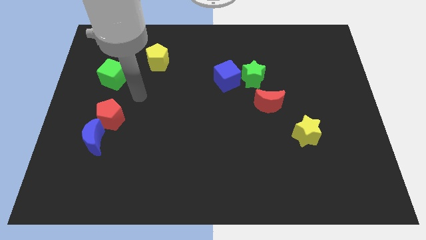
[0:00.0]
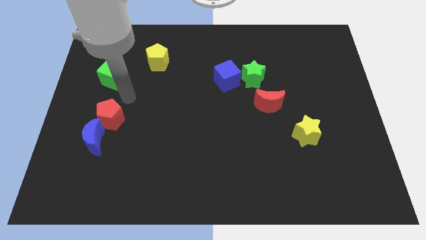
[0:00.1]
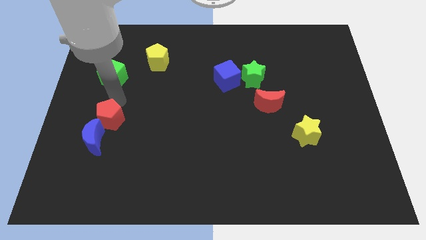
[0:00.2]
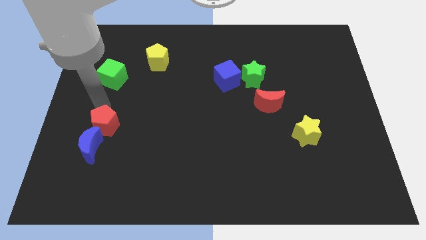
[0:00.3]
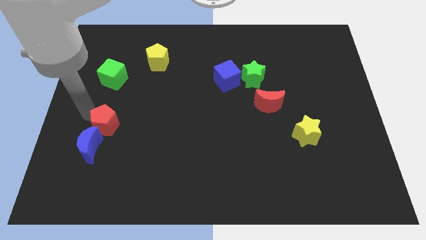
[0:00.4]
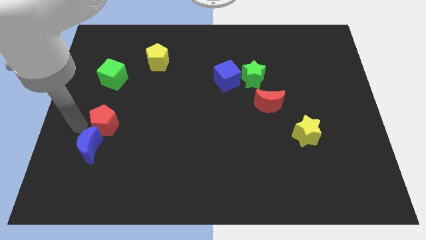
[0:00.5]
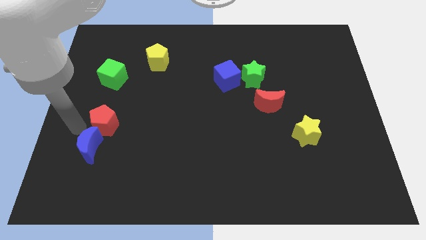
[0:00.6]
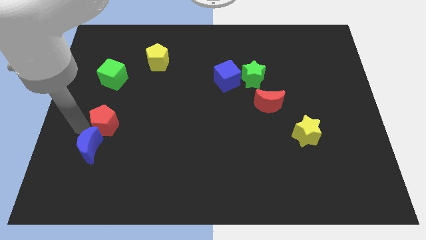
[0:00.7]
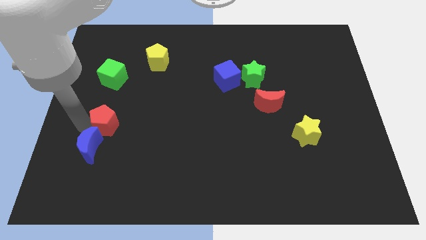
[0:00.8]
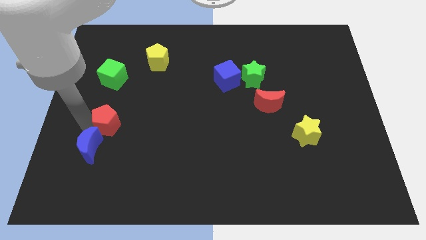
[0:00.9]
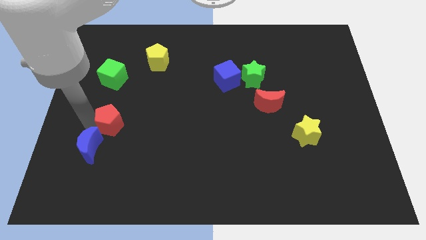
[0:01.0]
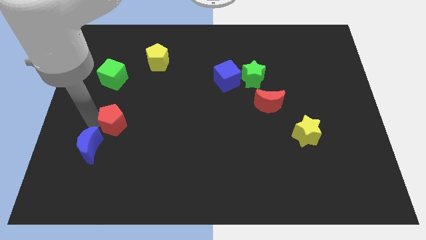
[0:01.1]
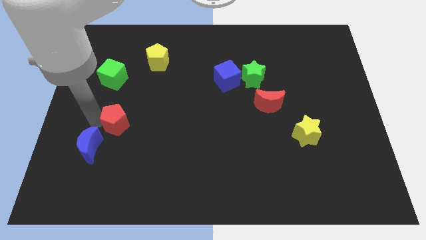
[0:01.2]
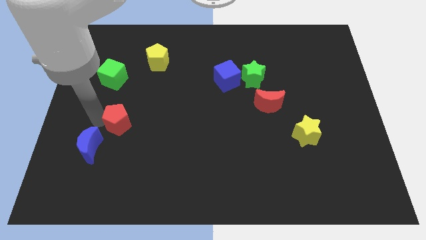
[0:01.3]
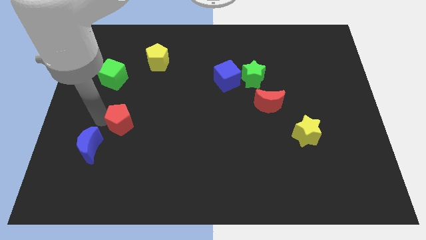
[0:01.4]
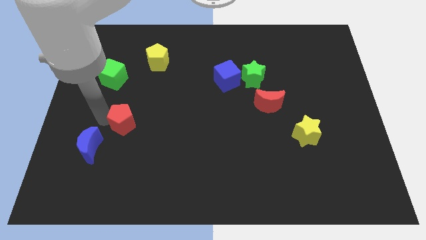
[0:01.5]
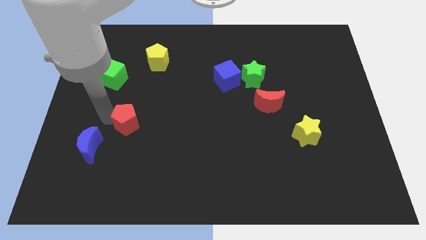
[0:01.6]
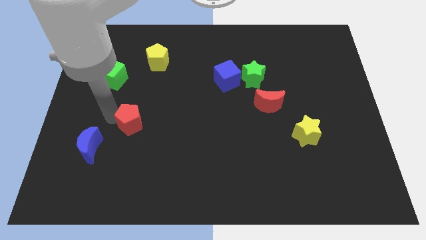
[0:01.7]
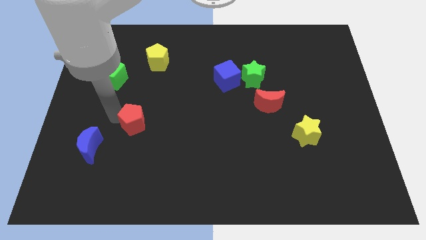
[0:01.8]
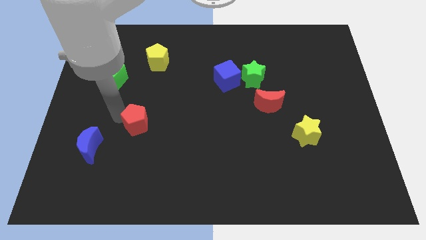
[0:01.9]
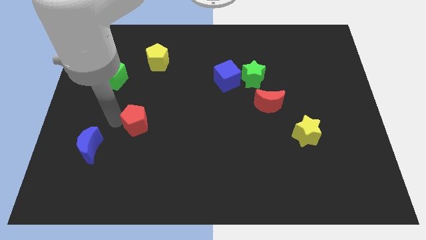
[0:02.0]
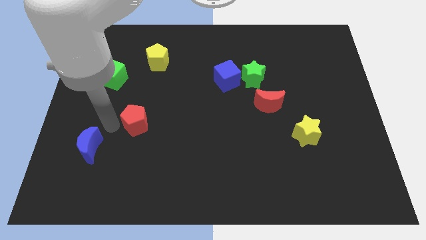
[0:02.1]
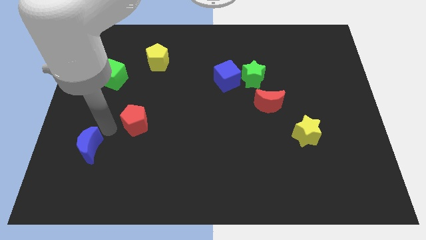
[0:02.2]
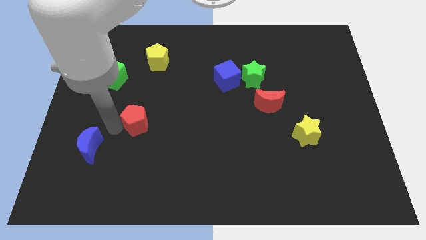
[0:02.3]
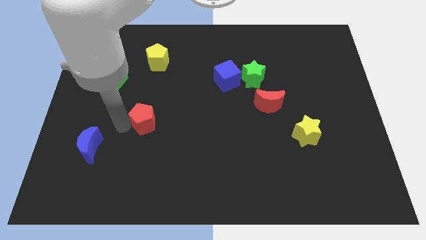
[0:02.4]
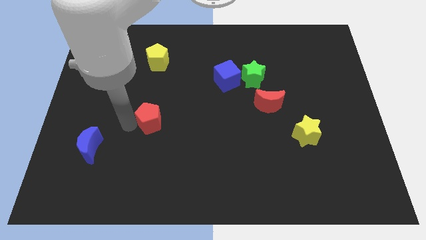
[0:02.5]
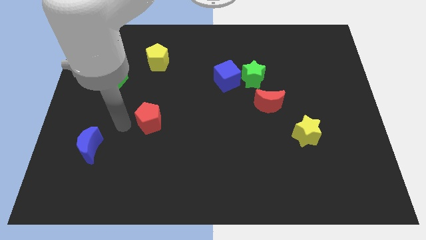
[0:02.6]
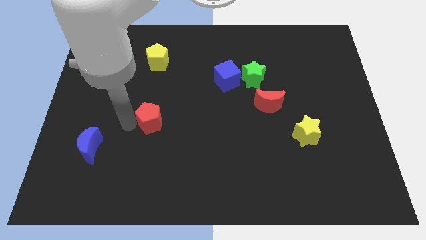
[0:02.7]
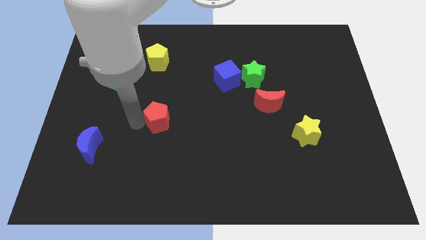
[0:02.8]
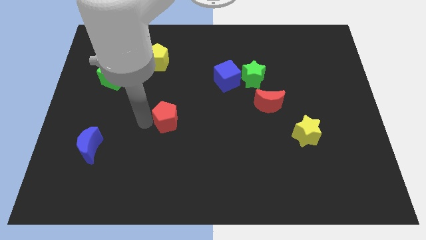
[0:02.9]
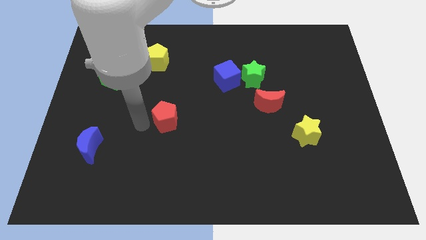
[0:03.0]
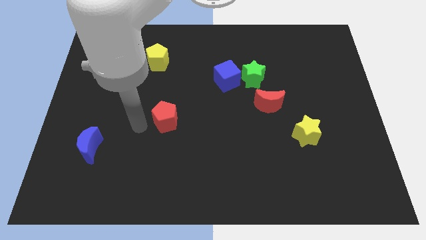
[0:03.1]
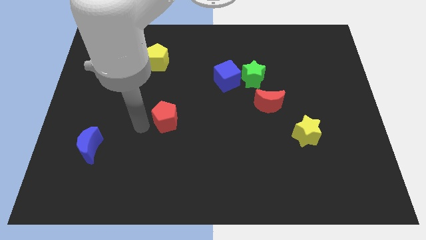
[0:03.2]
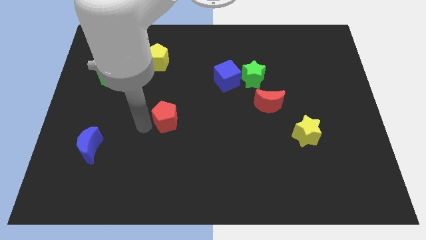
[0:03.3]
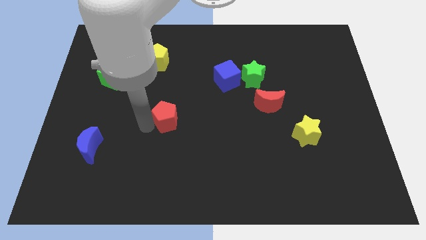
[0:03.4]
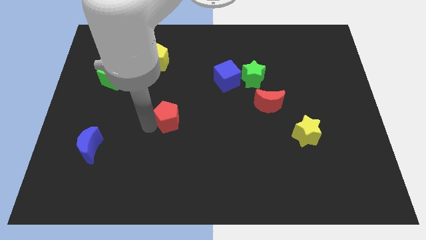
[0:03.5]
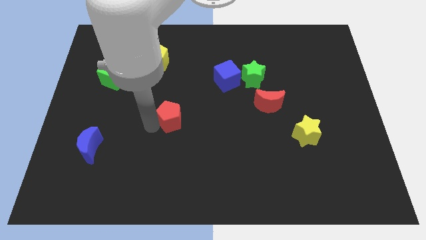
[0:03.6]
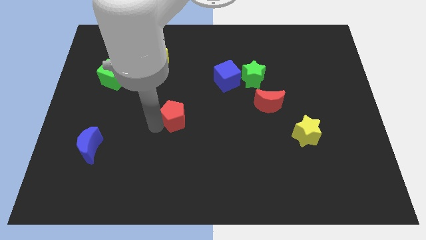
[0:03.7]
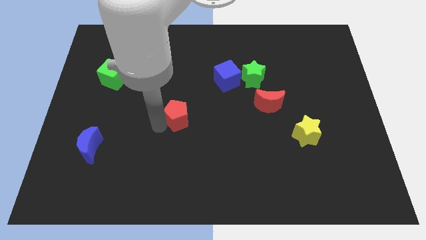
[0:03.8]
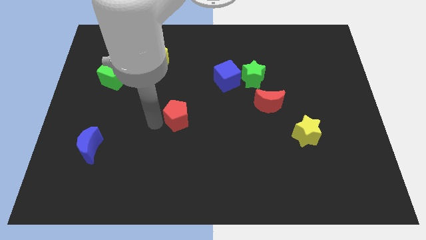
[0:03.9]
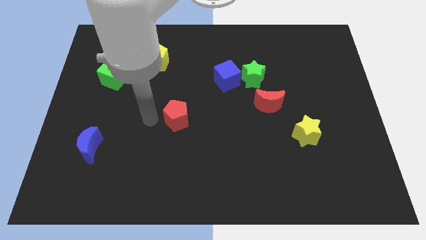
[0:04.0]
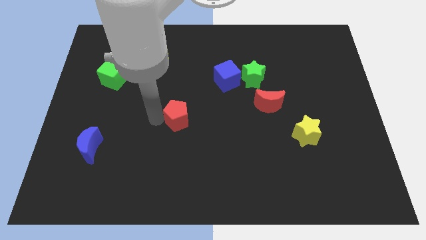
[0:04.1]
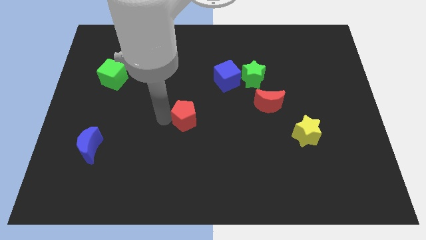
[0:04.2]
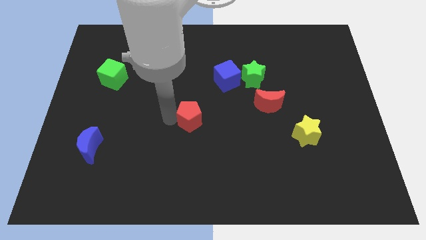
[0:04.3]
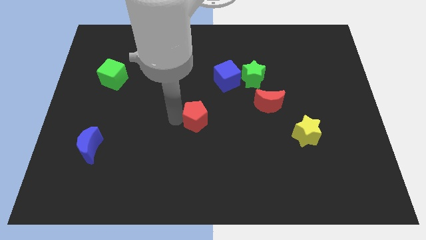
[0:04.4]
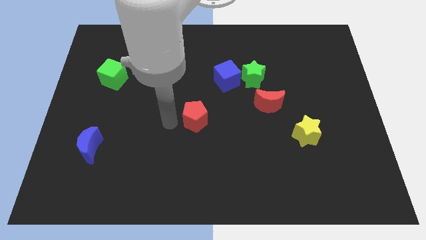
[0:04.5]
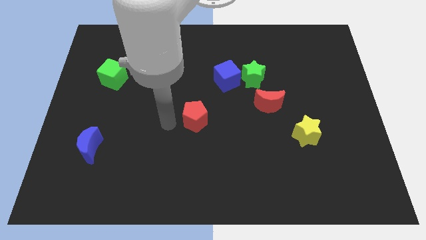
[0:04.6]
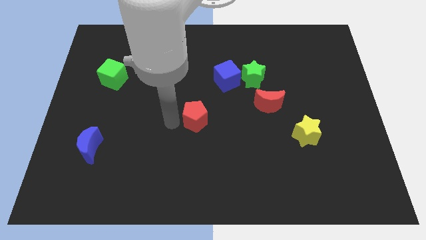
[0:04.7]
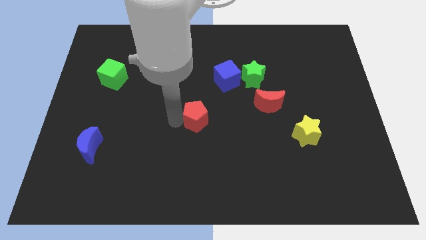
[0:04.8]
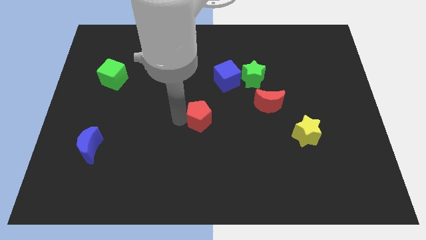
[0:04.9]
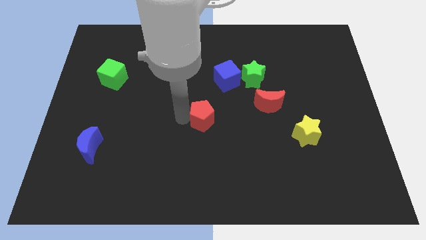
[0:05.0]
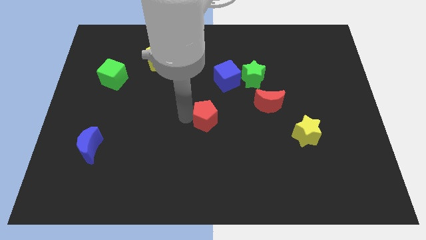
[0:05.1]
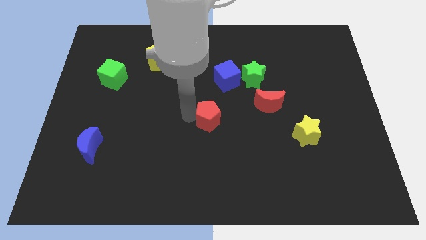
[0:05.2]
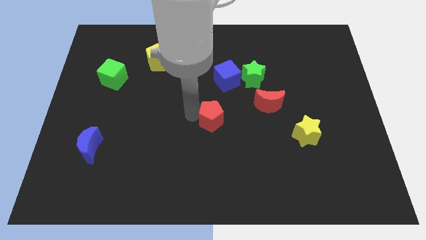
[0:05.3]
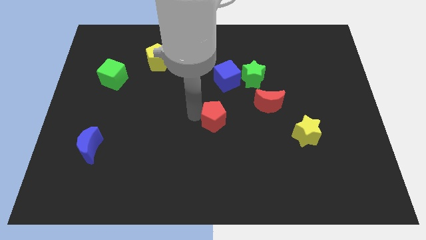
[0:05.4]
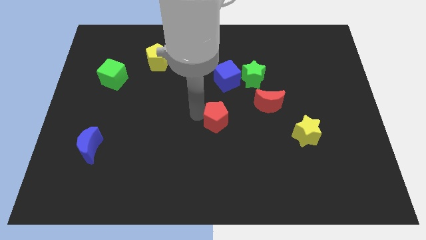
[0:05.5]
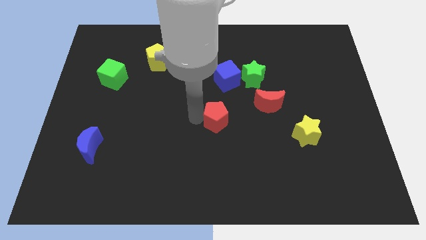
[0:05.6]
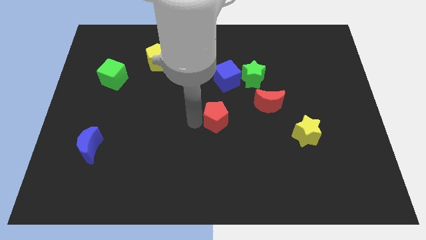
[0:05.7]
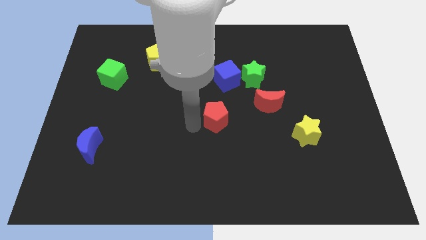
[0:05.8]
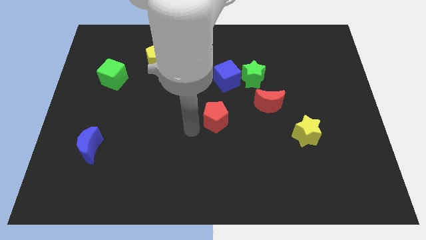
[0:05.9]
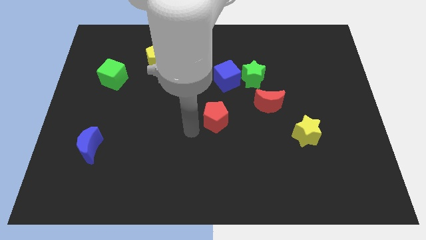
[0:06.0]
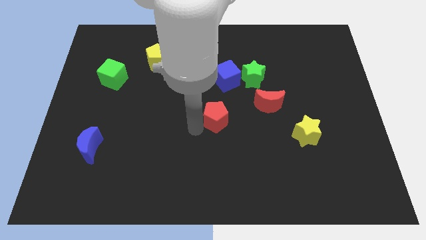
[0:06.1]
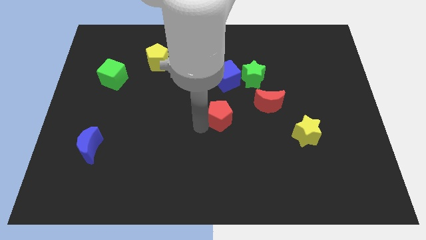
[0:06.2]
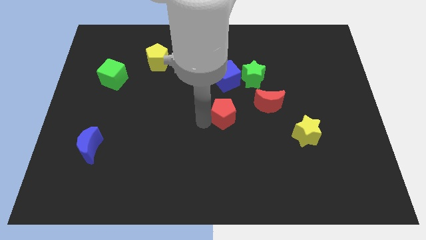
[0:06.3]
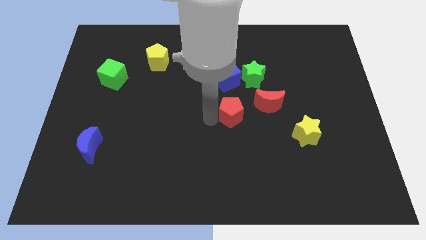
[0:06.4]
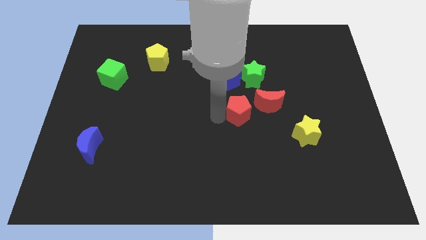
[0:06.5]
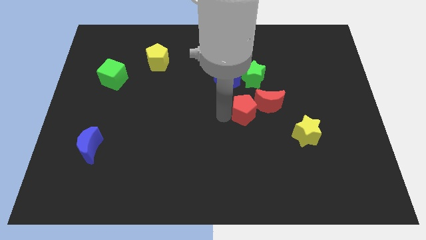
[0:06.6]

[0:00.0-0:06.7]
push the red pentagon close to the red moon

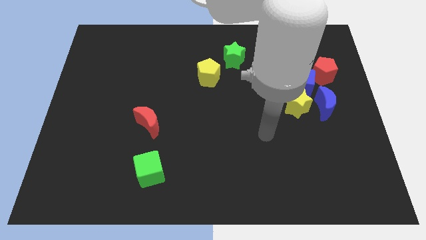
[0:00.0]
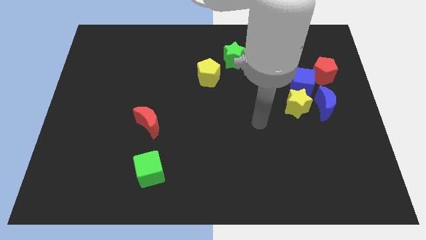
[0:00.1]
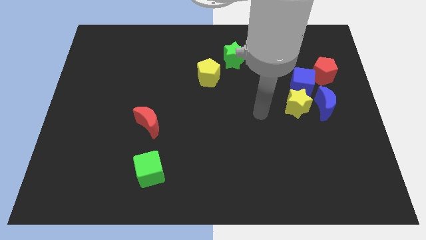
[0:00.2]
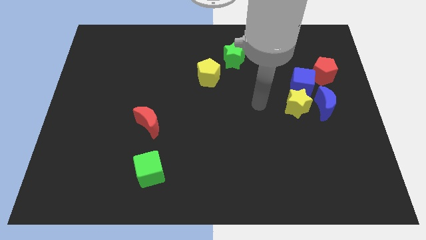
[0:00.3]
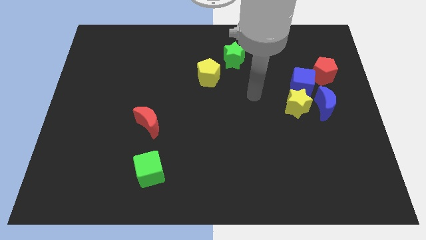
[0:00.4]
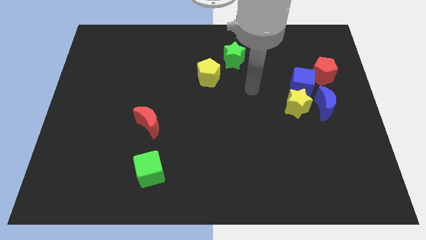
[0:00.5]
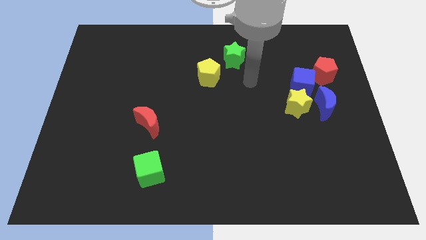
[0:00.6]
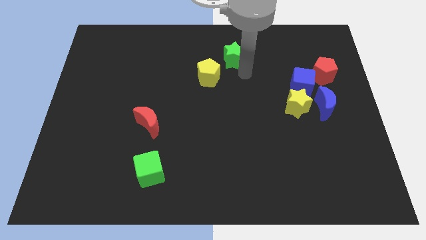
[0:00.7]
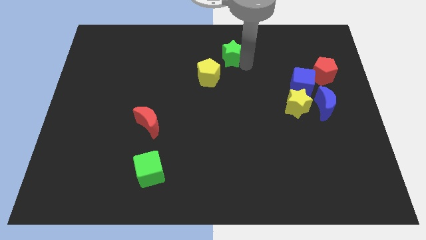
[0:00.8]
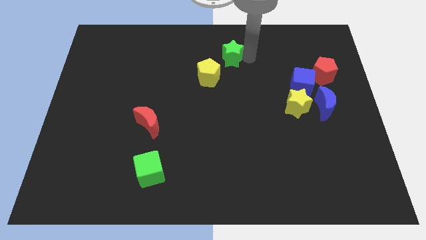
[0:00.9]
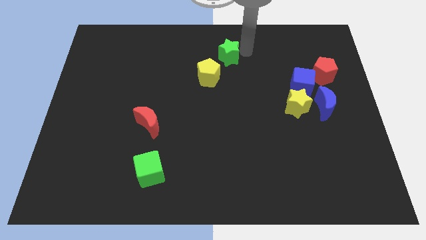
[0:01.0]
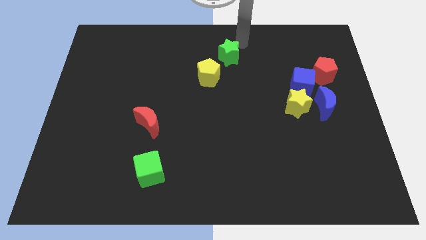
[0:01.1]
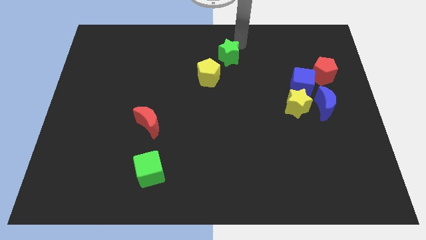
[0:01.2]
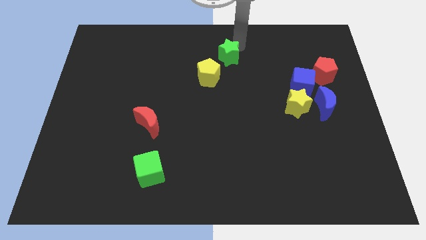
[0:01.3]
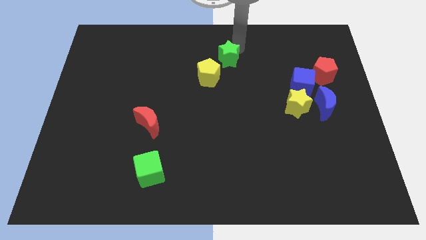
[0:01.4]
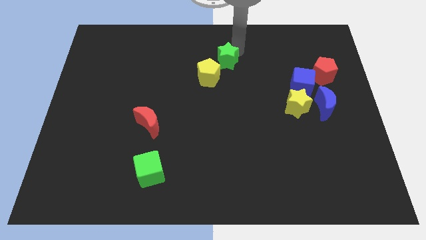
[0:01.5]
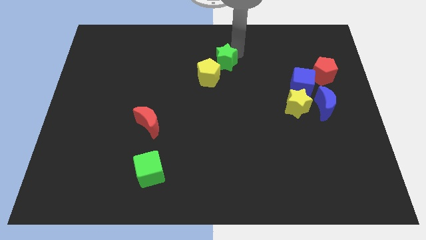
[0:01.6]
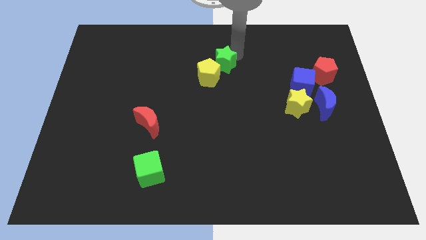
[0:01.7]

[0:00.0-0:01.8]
put the green star to the yellow pentagon
